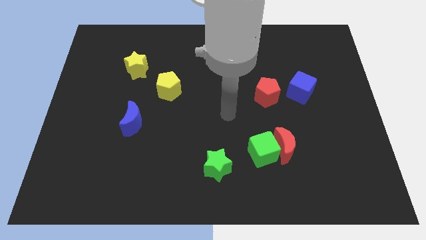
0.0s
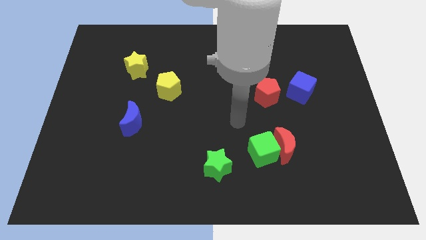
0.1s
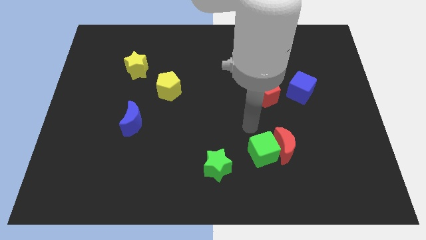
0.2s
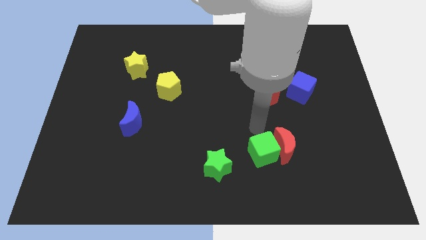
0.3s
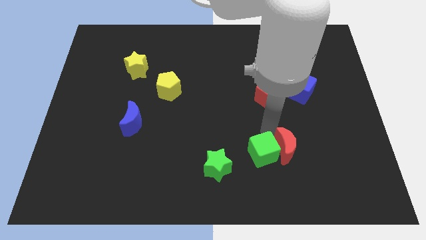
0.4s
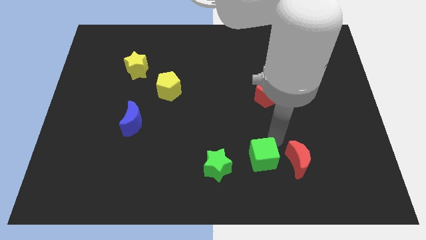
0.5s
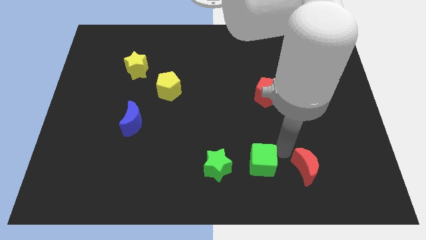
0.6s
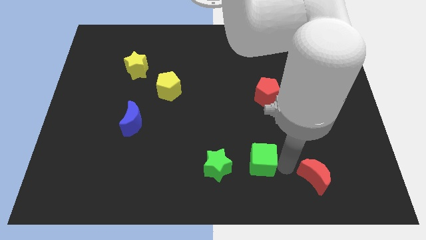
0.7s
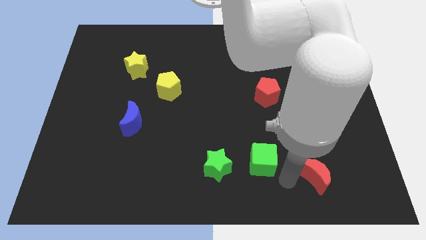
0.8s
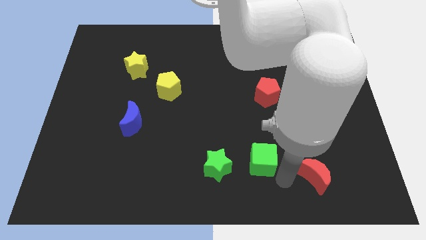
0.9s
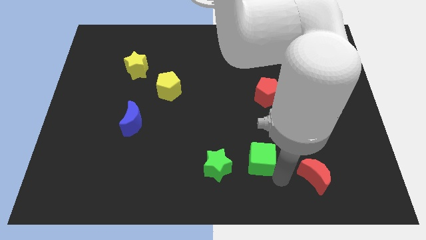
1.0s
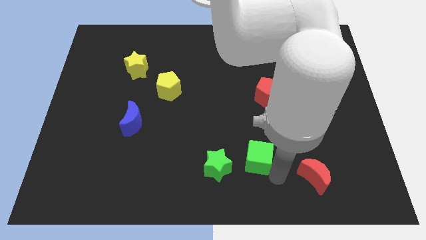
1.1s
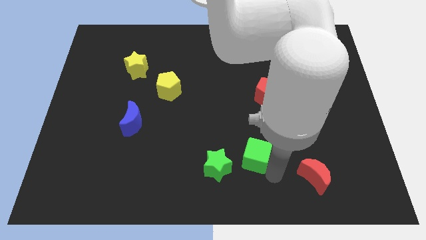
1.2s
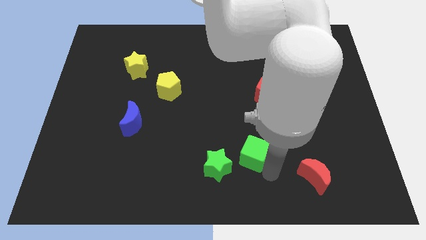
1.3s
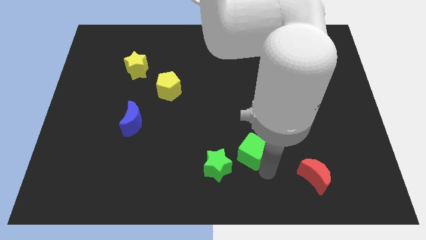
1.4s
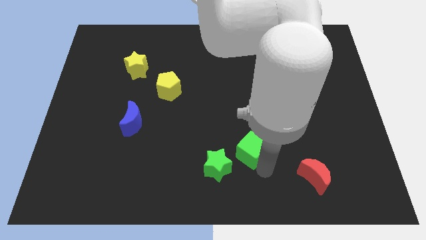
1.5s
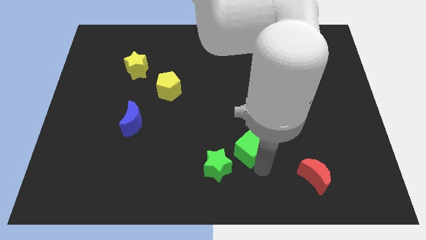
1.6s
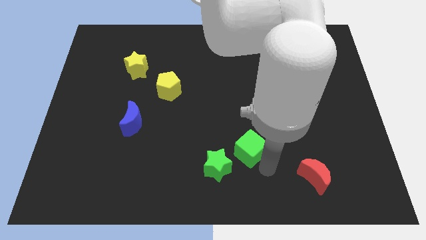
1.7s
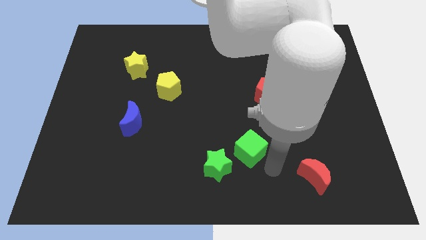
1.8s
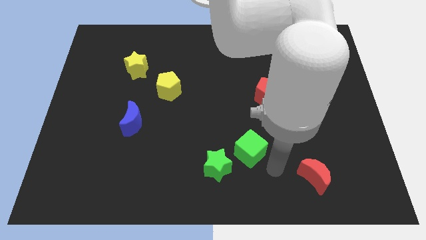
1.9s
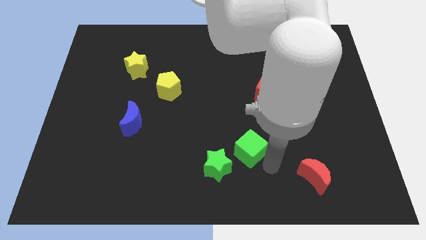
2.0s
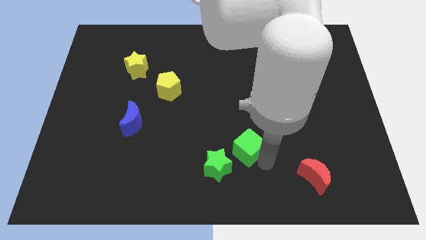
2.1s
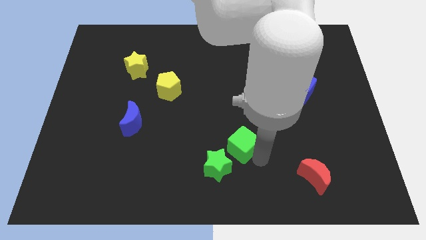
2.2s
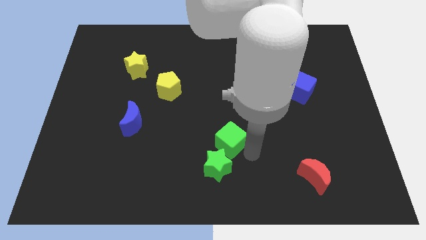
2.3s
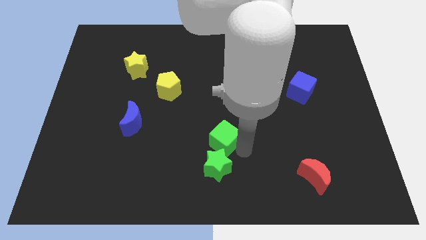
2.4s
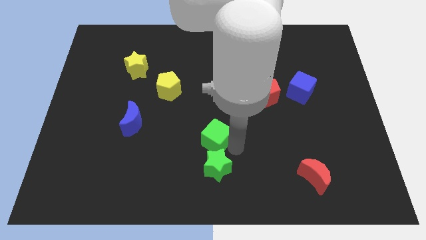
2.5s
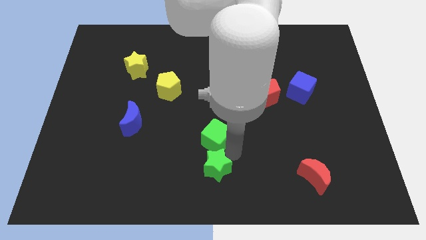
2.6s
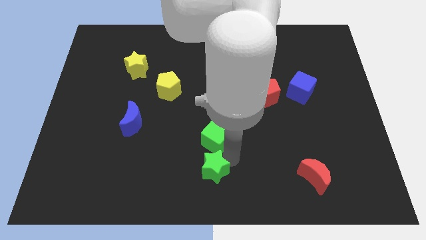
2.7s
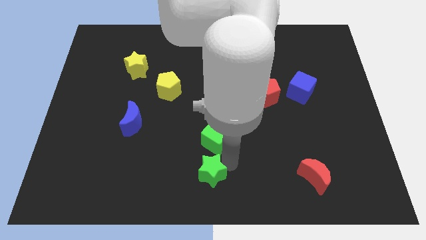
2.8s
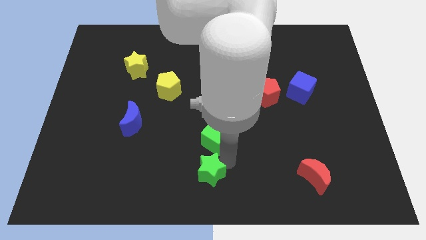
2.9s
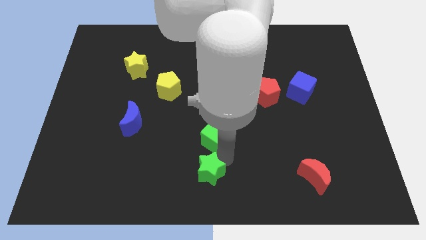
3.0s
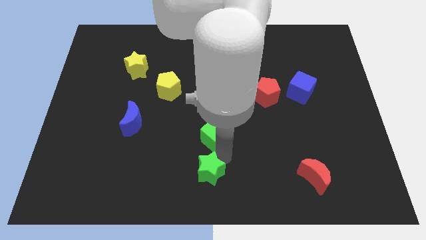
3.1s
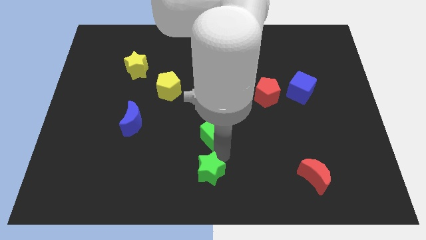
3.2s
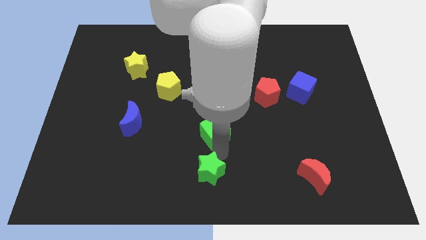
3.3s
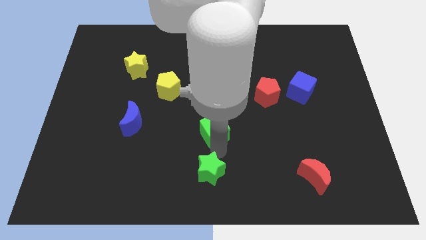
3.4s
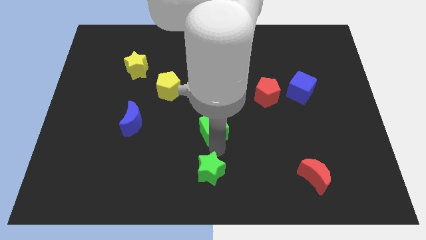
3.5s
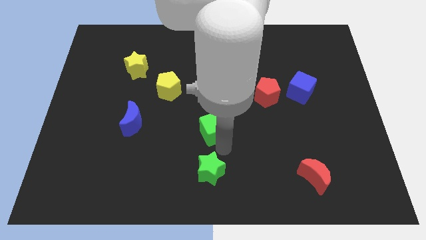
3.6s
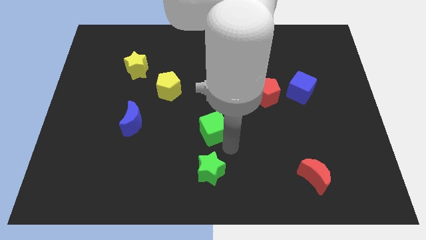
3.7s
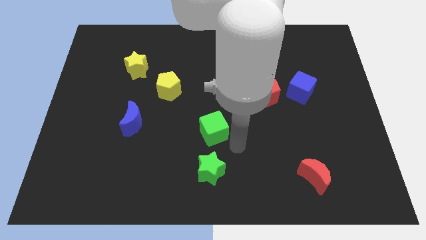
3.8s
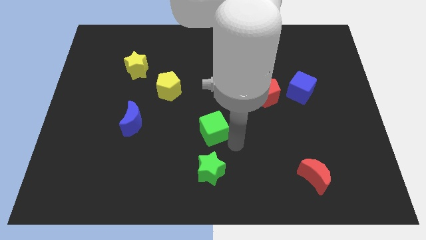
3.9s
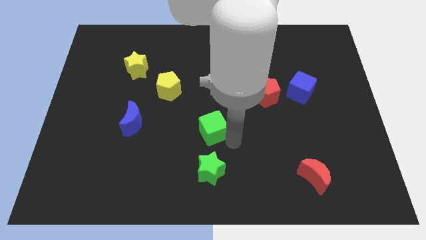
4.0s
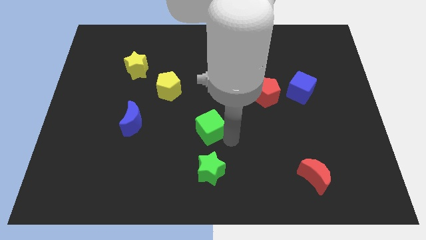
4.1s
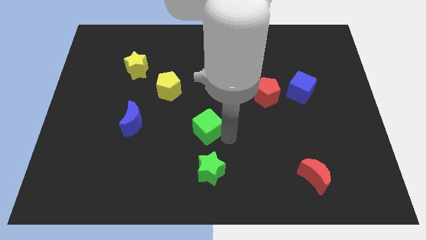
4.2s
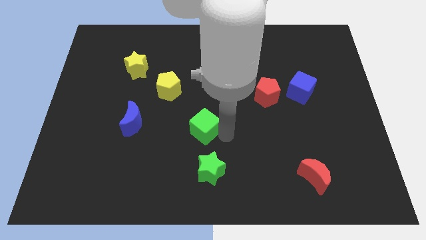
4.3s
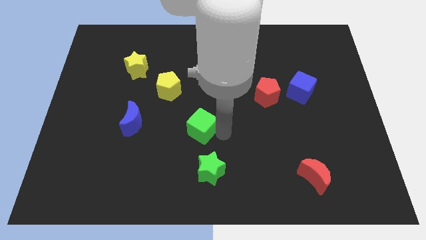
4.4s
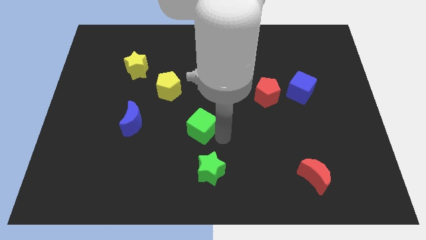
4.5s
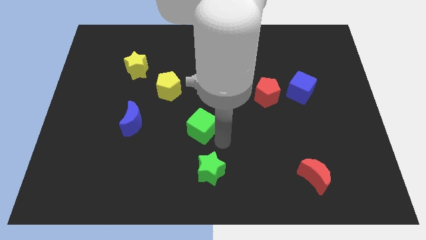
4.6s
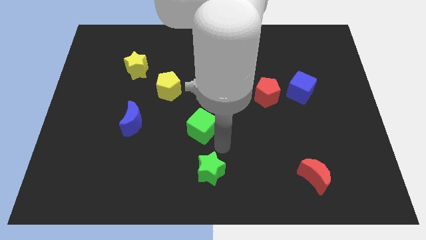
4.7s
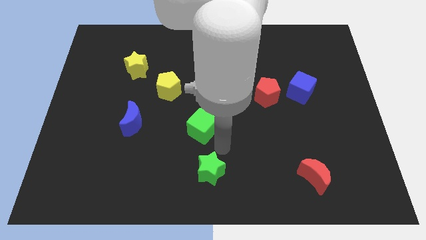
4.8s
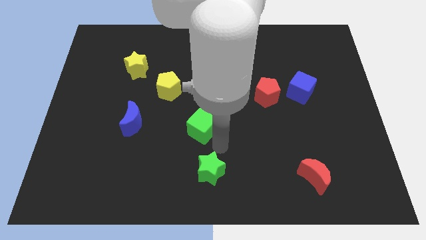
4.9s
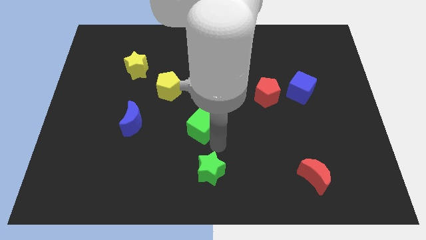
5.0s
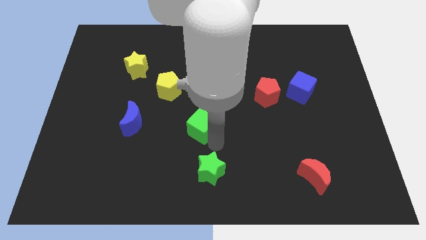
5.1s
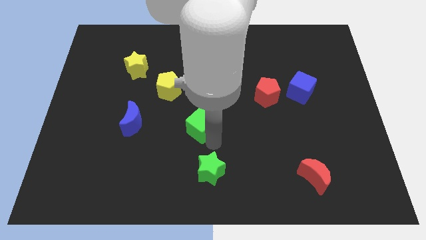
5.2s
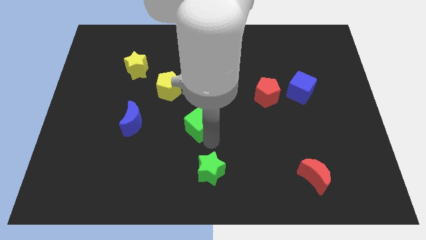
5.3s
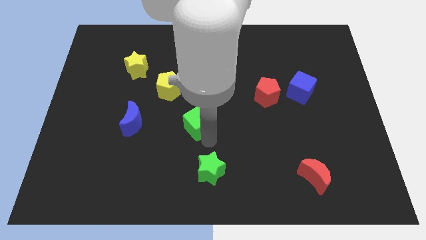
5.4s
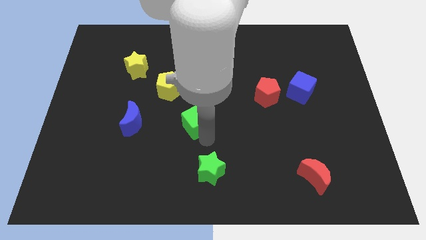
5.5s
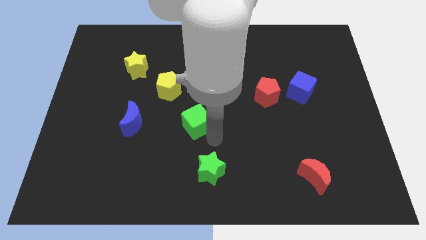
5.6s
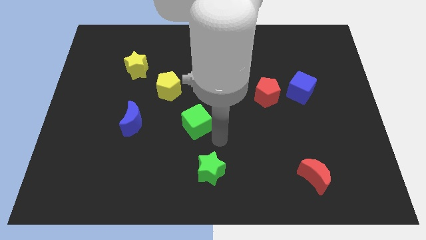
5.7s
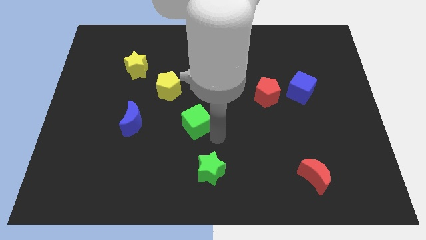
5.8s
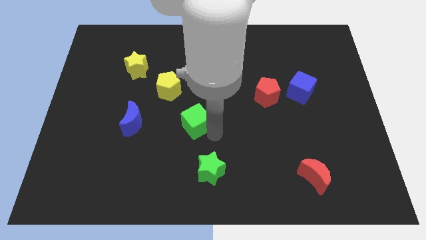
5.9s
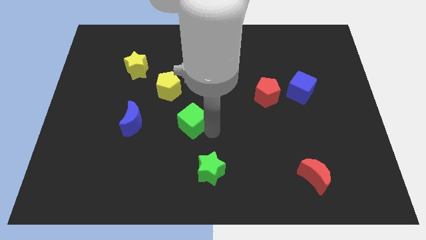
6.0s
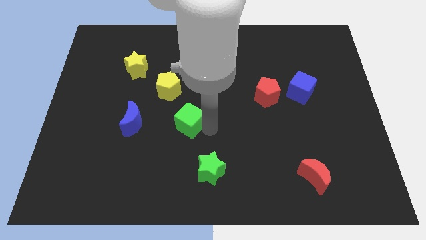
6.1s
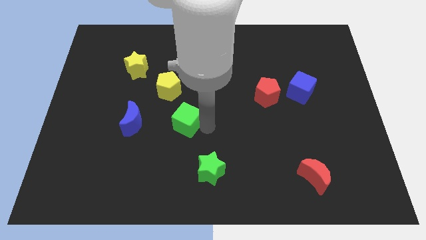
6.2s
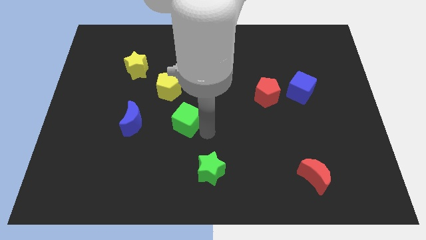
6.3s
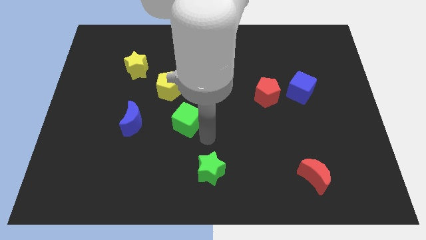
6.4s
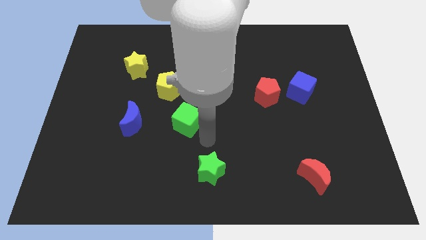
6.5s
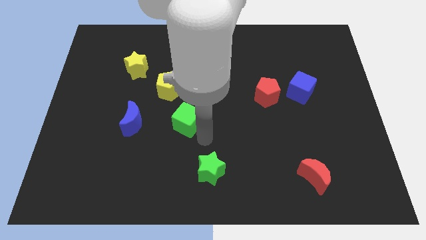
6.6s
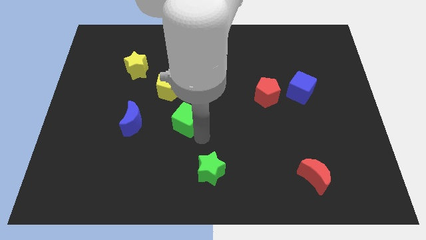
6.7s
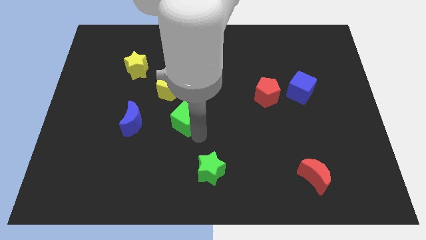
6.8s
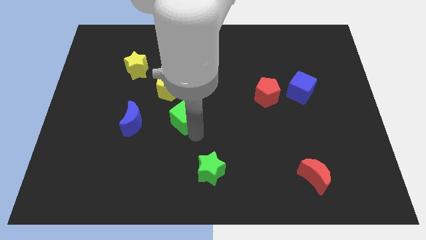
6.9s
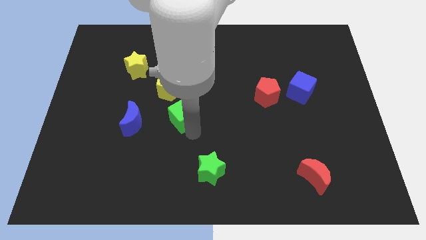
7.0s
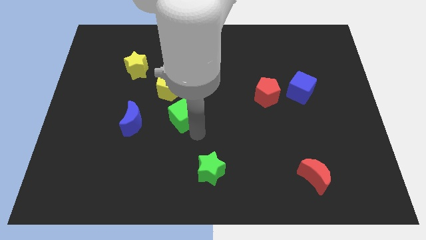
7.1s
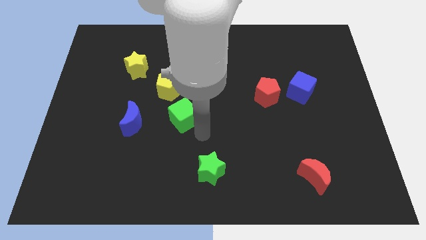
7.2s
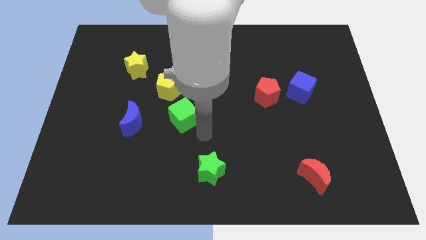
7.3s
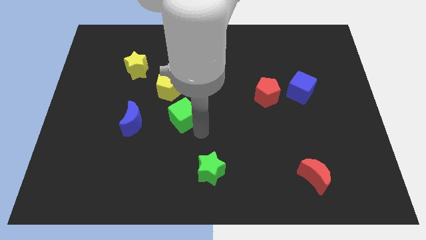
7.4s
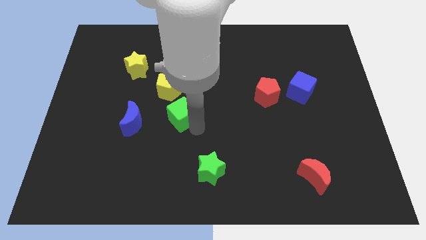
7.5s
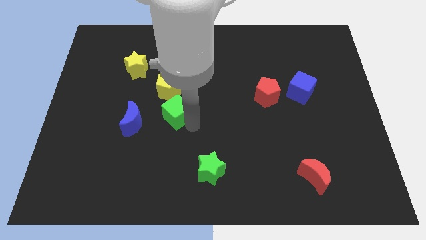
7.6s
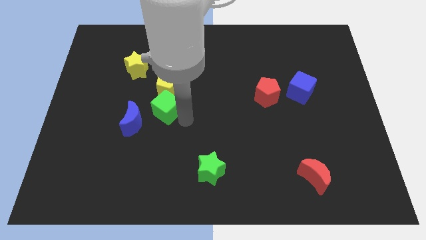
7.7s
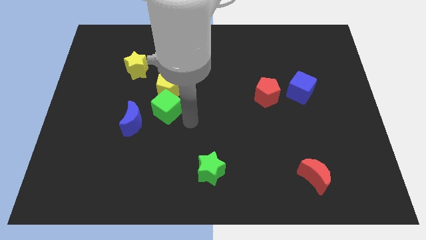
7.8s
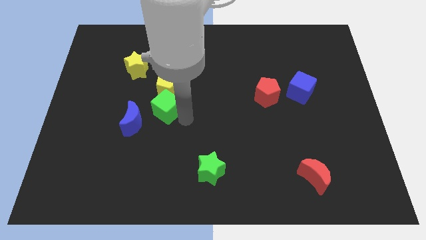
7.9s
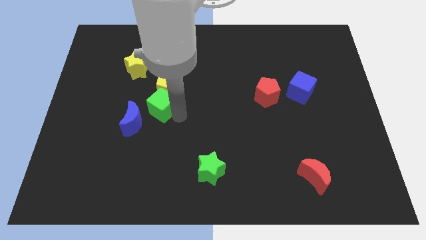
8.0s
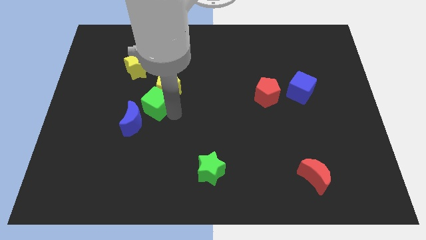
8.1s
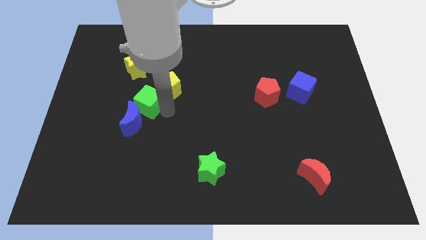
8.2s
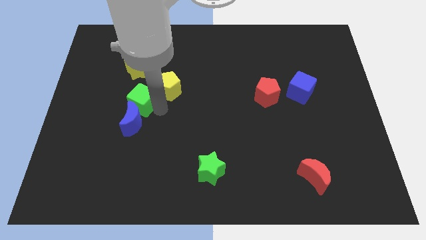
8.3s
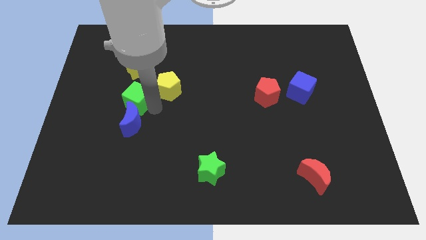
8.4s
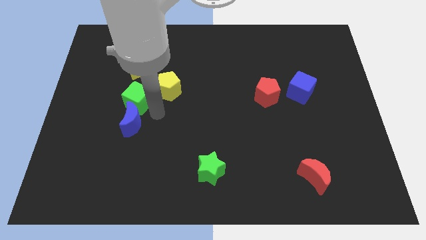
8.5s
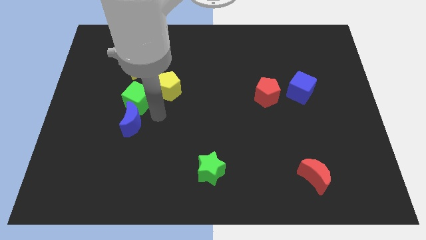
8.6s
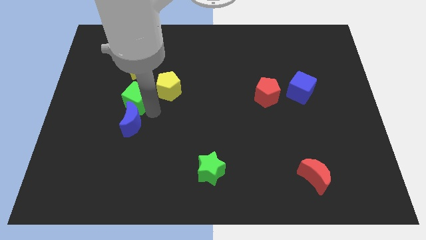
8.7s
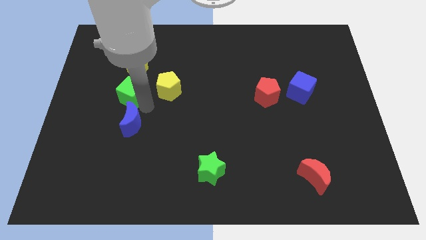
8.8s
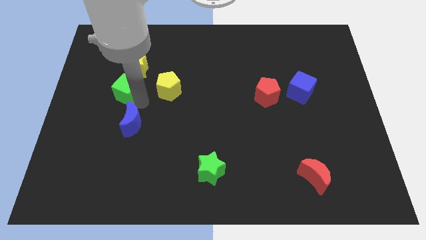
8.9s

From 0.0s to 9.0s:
move the green cube to the bottom left of the yellow star
